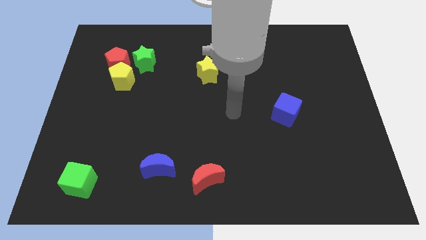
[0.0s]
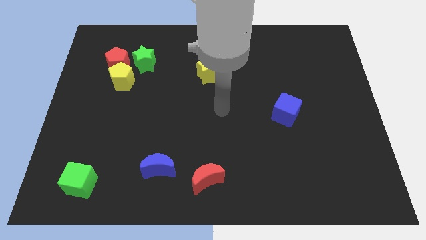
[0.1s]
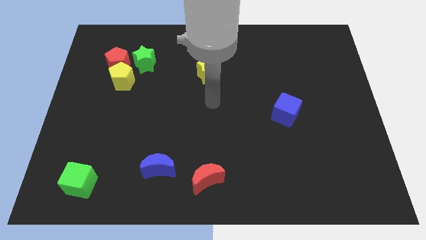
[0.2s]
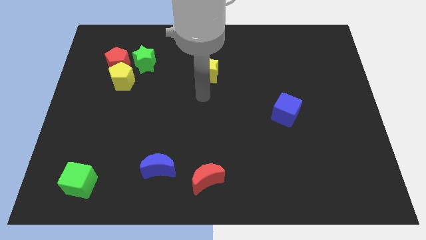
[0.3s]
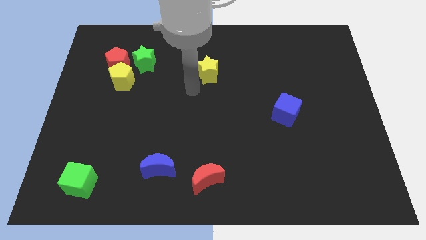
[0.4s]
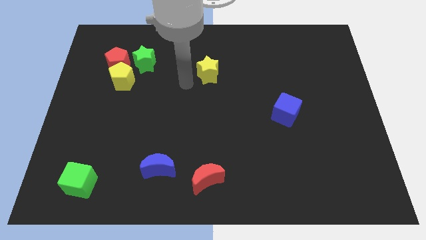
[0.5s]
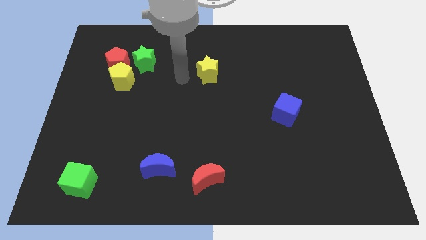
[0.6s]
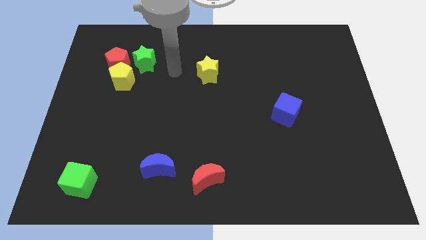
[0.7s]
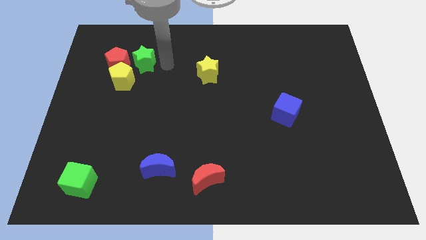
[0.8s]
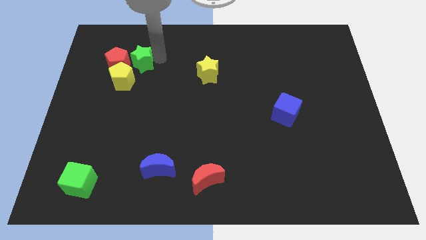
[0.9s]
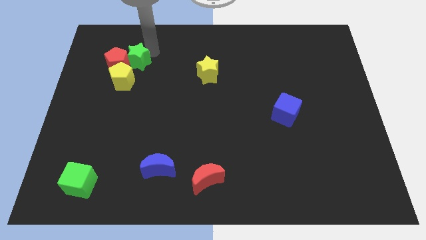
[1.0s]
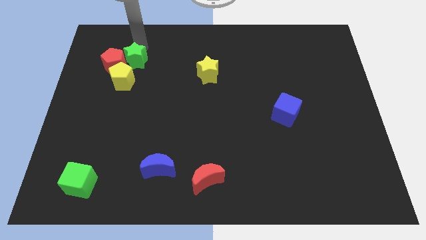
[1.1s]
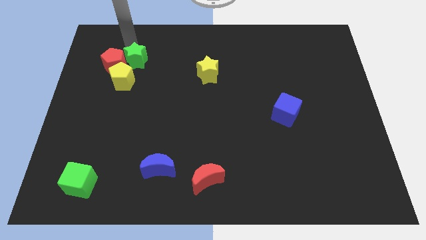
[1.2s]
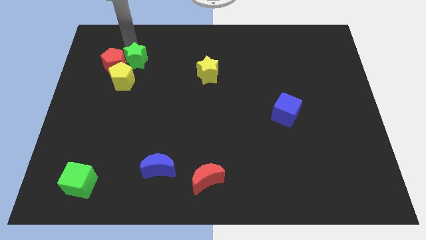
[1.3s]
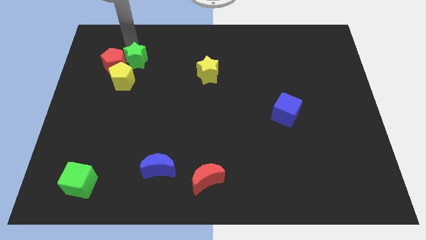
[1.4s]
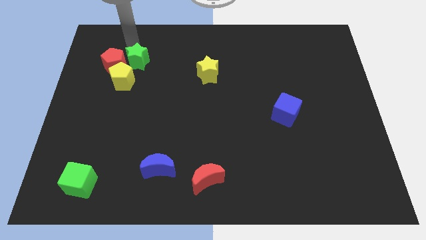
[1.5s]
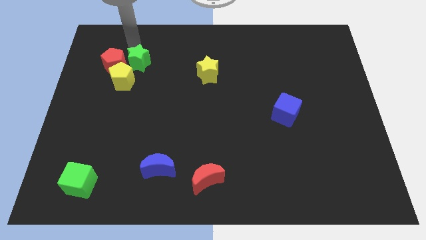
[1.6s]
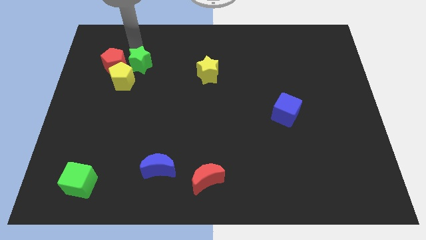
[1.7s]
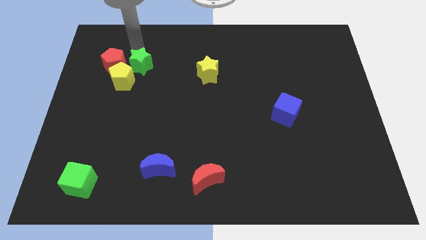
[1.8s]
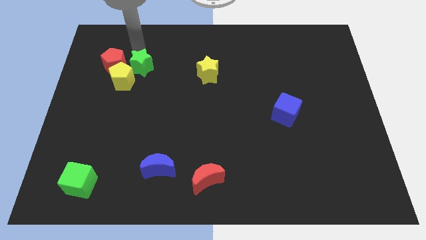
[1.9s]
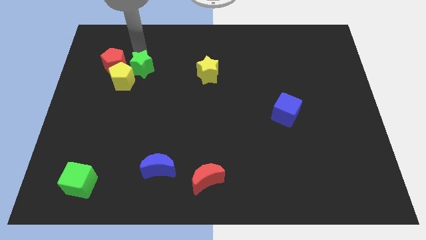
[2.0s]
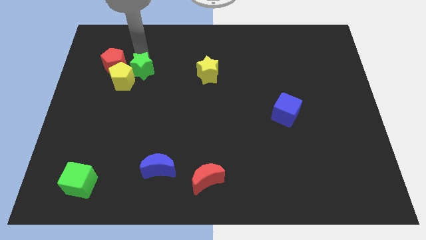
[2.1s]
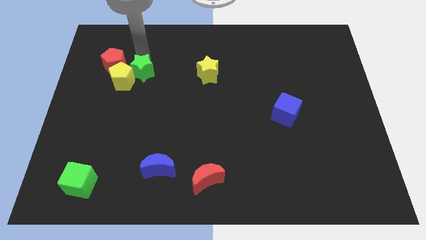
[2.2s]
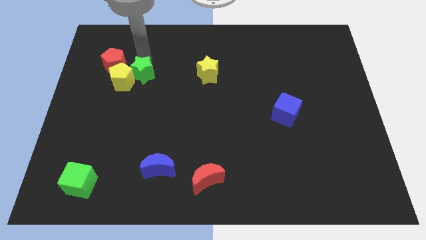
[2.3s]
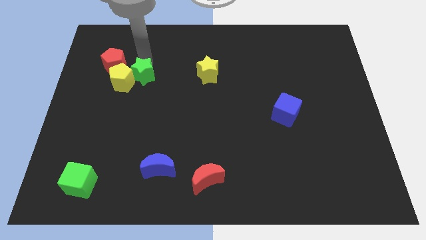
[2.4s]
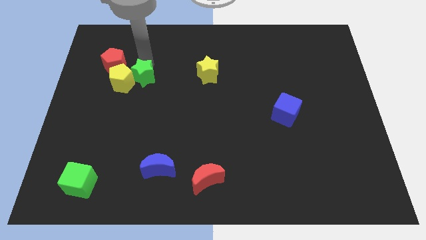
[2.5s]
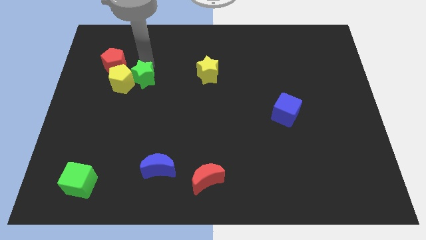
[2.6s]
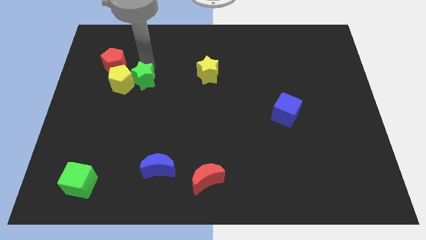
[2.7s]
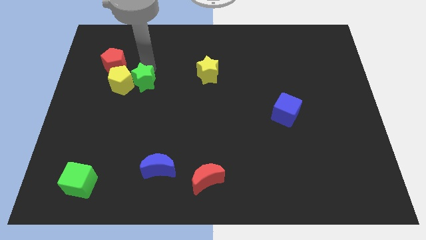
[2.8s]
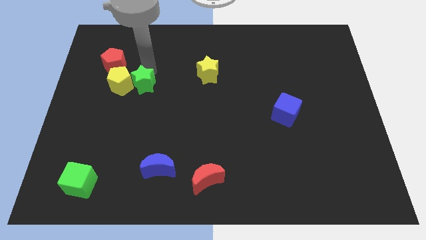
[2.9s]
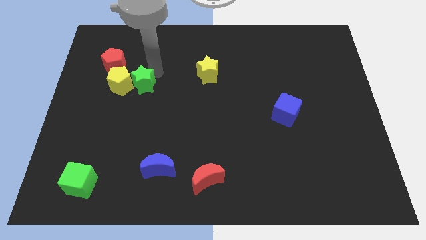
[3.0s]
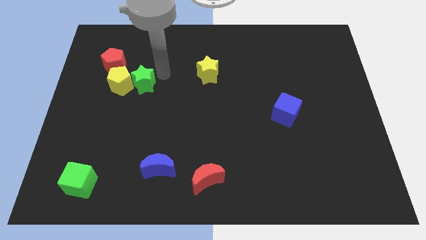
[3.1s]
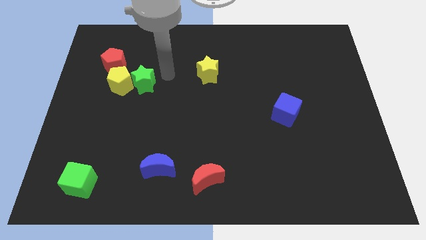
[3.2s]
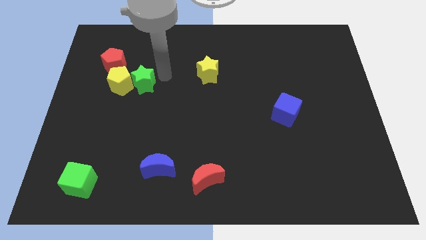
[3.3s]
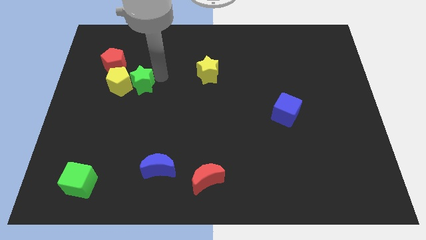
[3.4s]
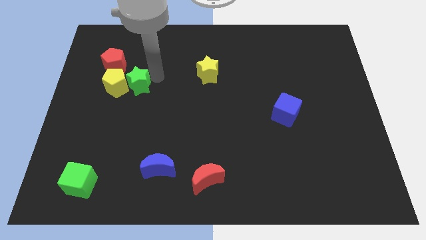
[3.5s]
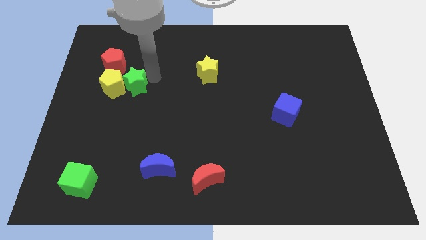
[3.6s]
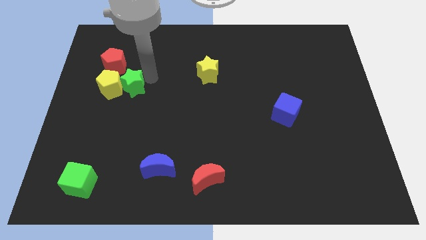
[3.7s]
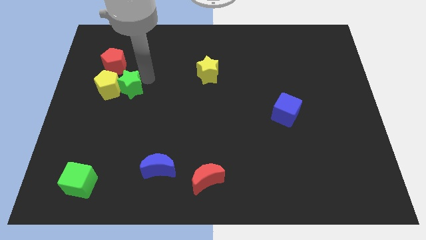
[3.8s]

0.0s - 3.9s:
move the green star below the red pentagon

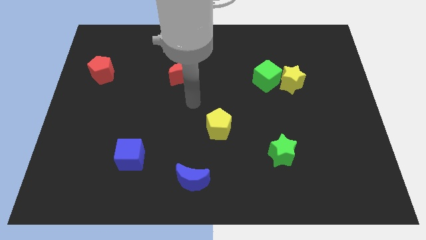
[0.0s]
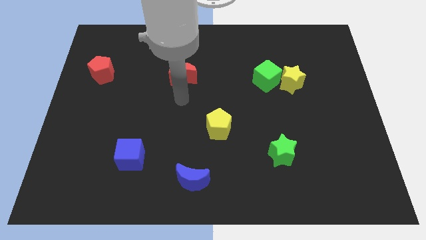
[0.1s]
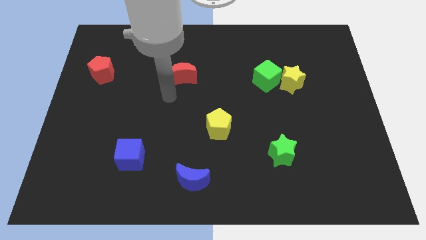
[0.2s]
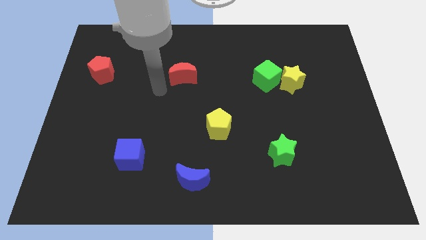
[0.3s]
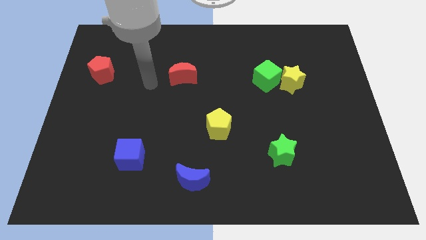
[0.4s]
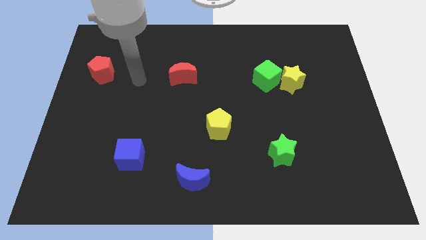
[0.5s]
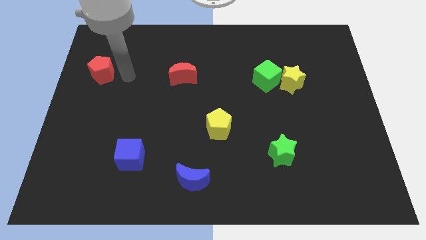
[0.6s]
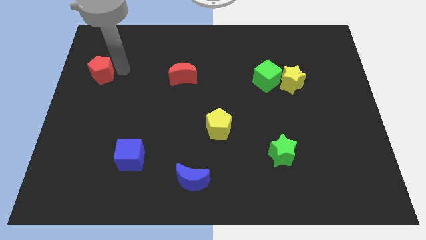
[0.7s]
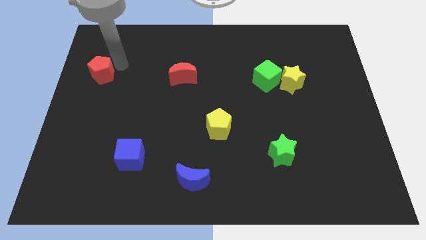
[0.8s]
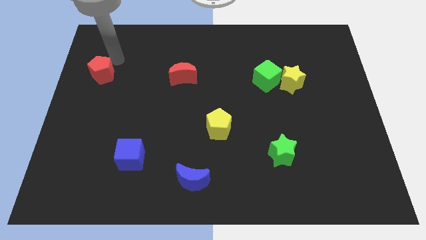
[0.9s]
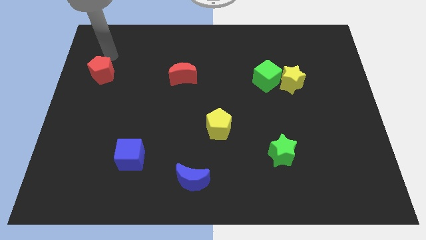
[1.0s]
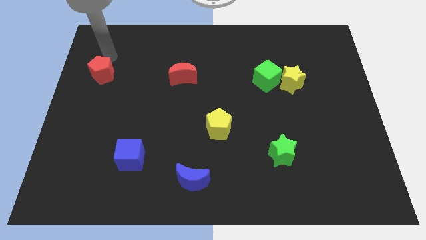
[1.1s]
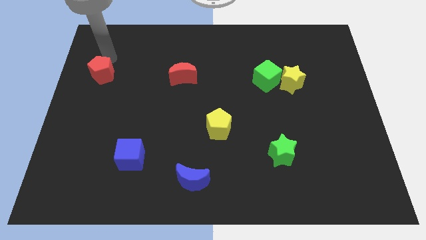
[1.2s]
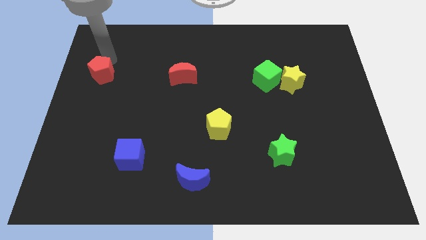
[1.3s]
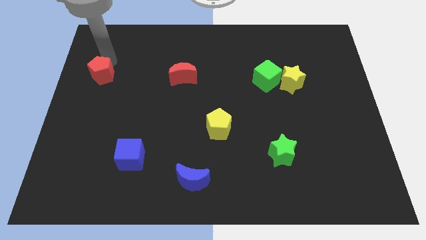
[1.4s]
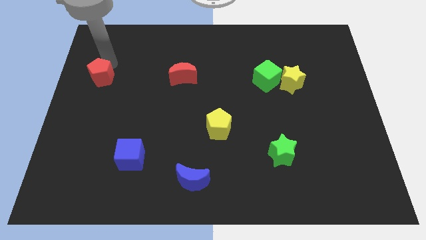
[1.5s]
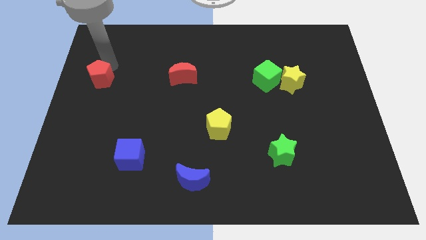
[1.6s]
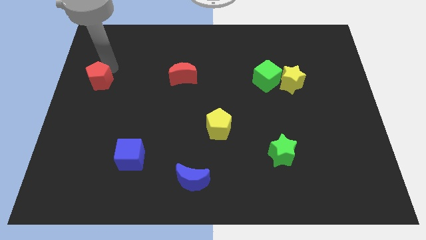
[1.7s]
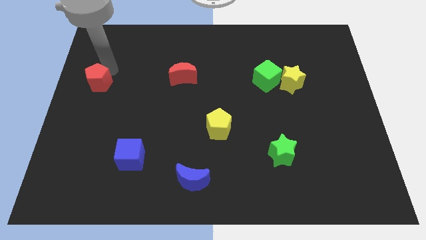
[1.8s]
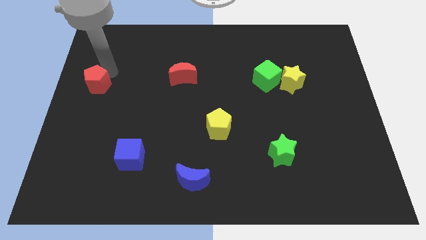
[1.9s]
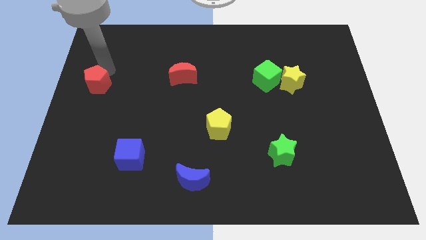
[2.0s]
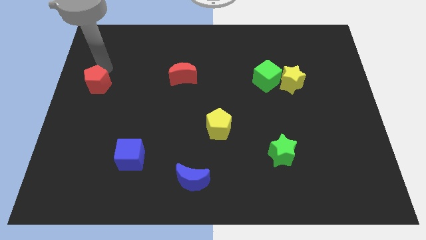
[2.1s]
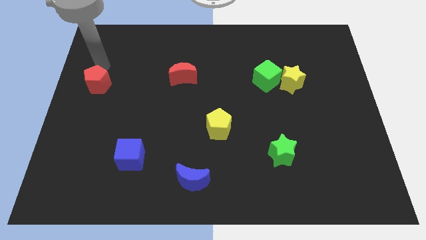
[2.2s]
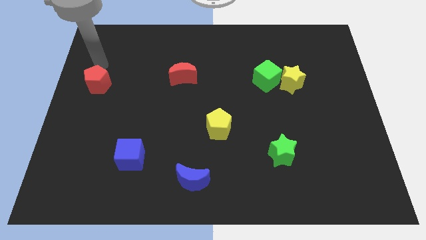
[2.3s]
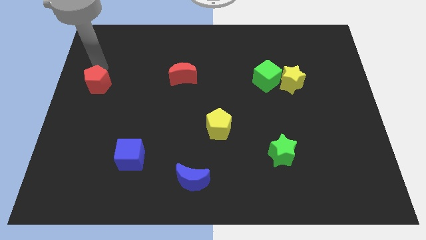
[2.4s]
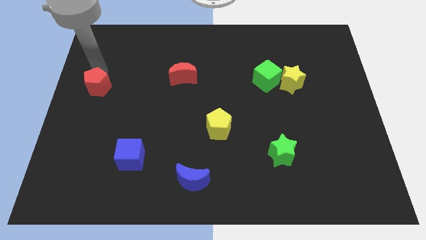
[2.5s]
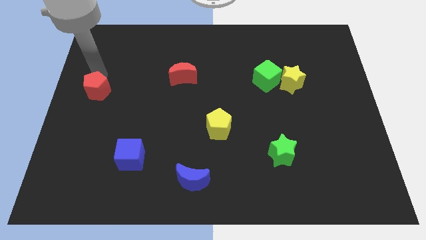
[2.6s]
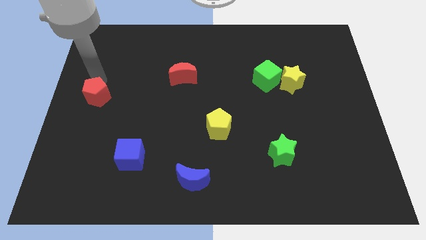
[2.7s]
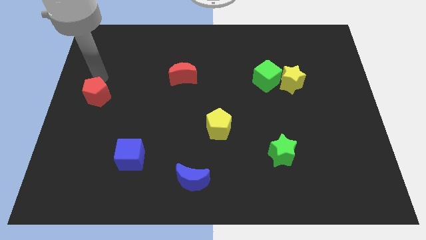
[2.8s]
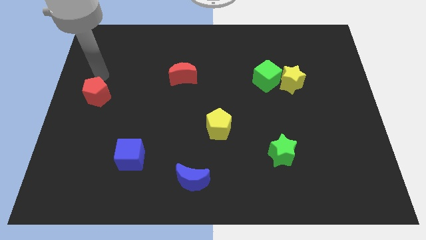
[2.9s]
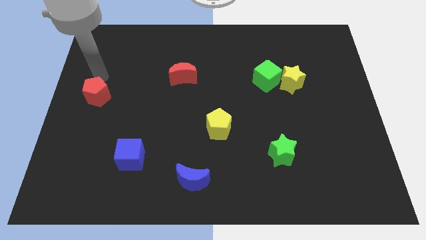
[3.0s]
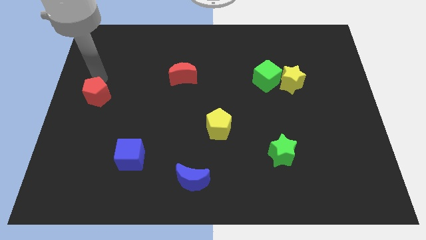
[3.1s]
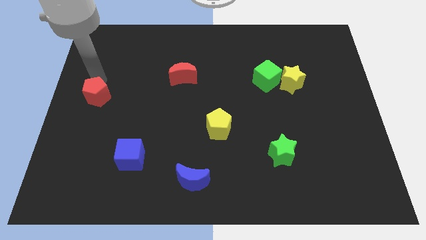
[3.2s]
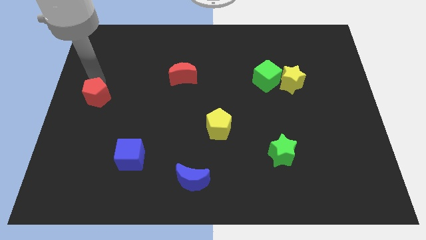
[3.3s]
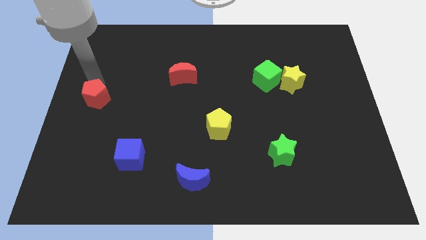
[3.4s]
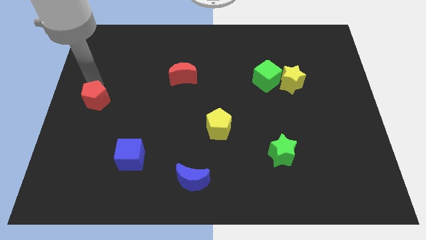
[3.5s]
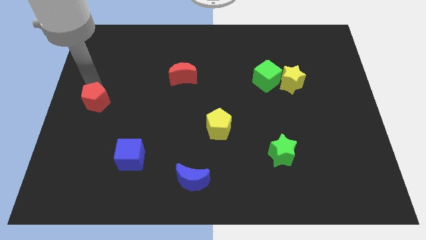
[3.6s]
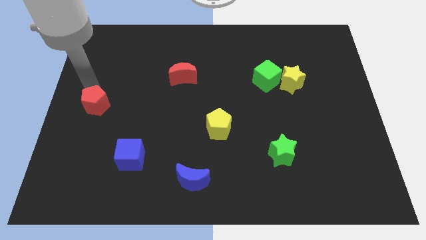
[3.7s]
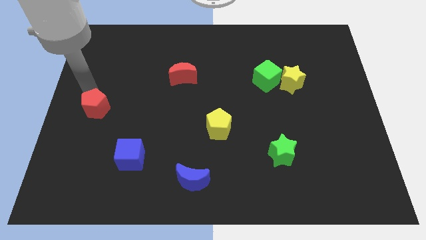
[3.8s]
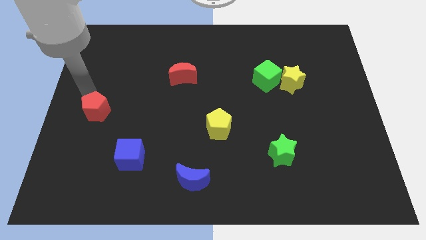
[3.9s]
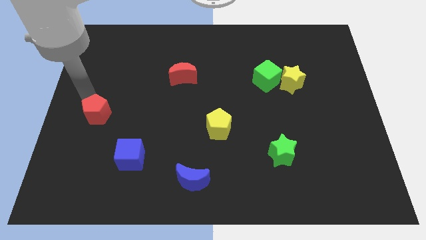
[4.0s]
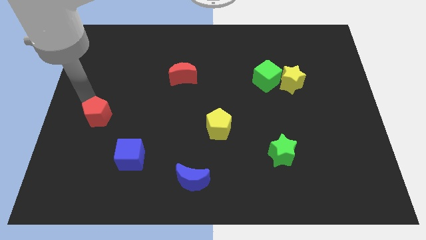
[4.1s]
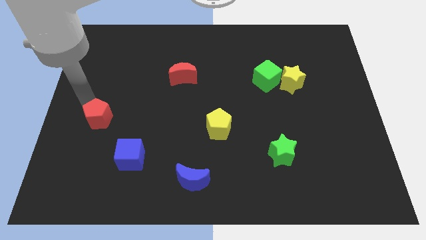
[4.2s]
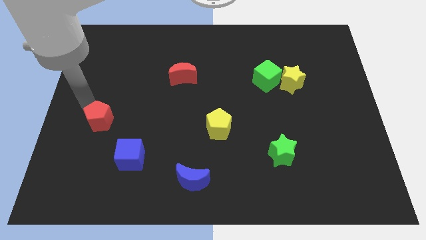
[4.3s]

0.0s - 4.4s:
push the red pentagon to the top left of the blue cube
